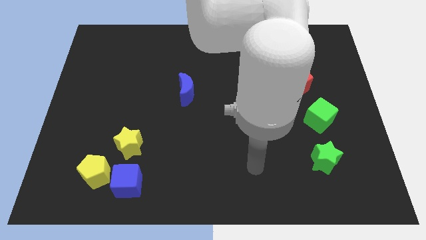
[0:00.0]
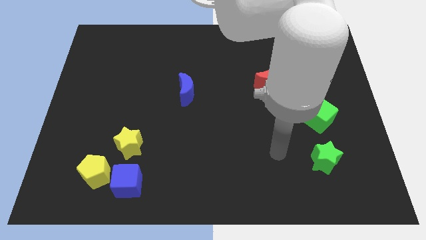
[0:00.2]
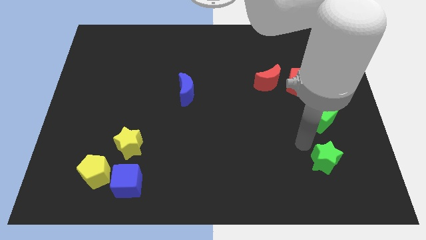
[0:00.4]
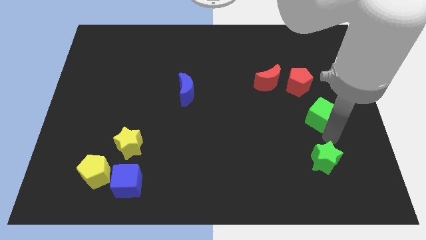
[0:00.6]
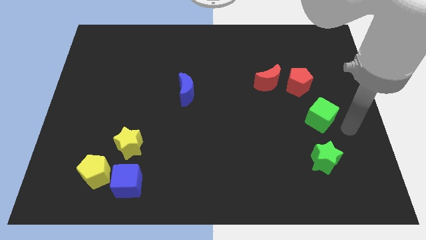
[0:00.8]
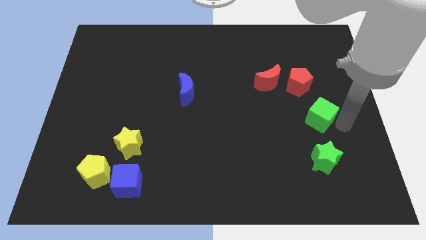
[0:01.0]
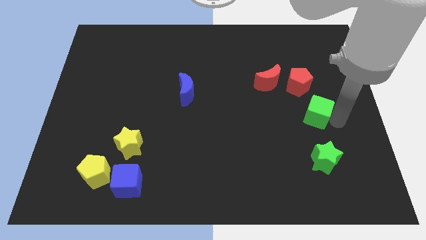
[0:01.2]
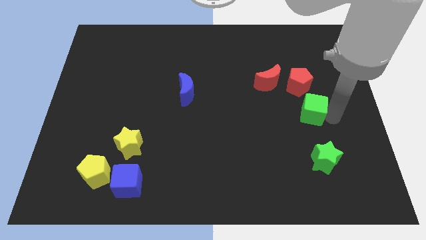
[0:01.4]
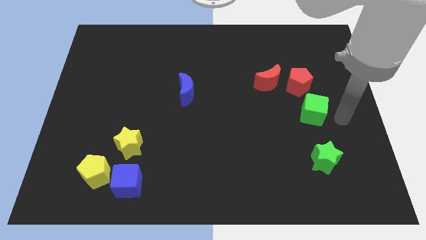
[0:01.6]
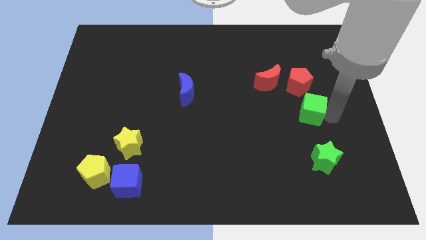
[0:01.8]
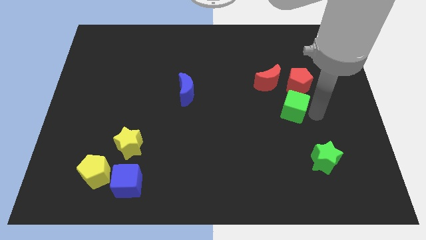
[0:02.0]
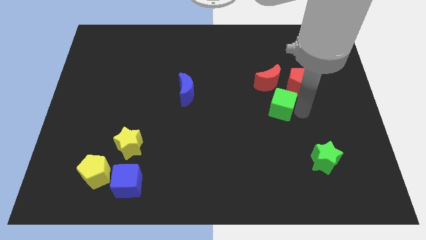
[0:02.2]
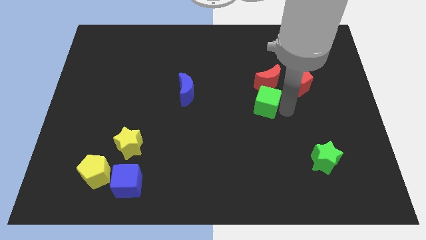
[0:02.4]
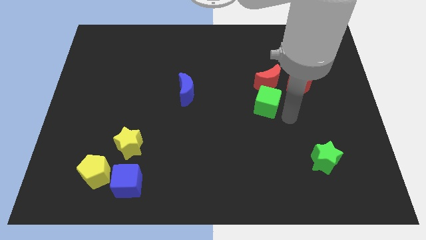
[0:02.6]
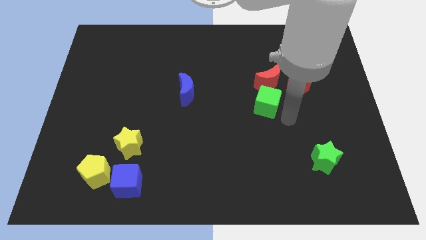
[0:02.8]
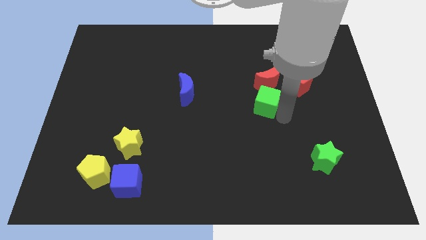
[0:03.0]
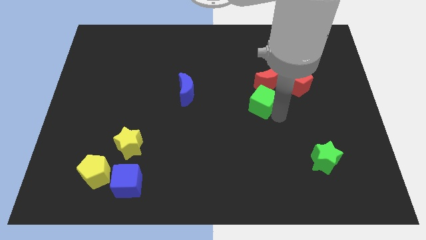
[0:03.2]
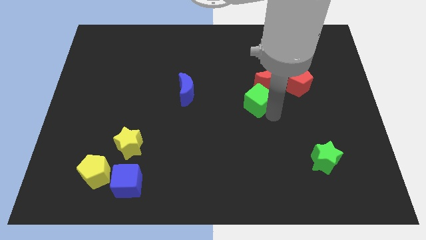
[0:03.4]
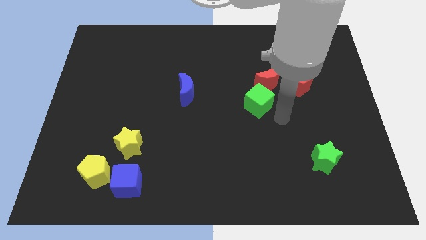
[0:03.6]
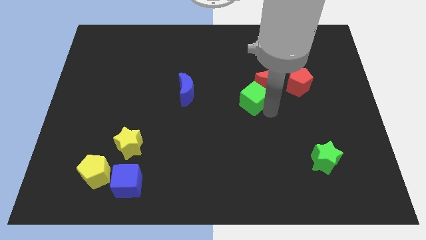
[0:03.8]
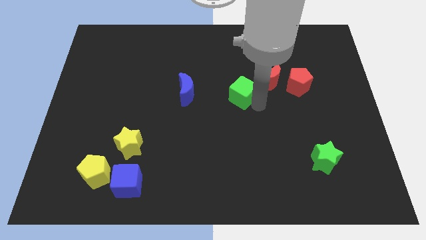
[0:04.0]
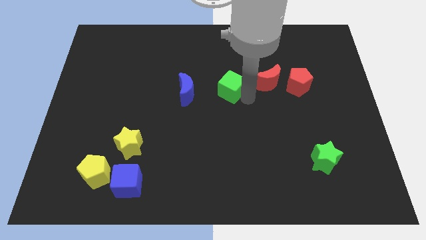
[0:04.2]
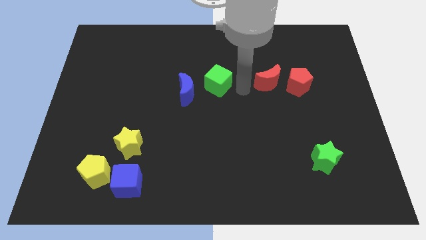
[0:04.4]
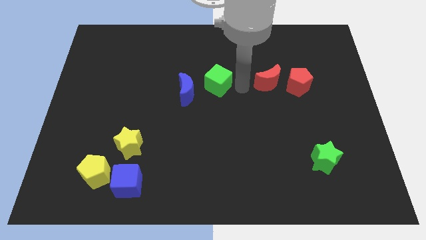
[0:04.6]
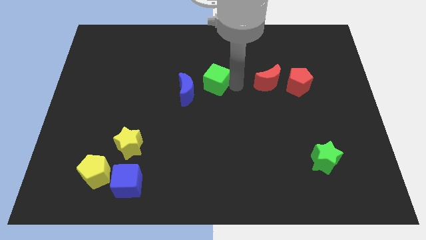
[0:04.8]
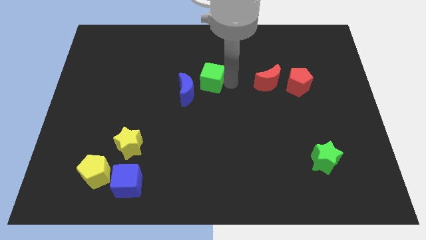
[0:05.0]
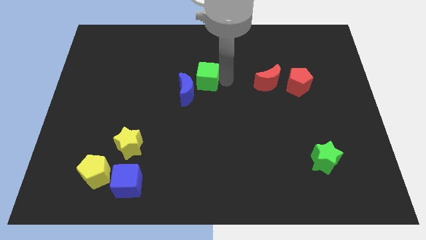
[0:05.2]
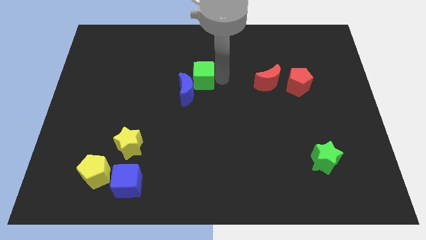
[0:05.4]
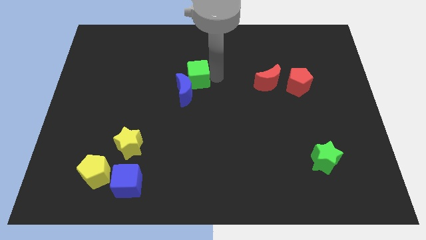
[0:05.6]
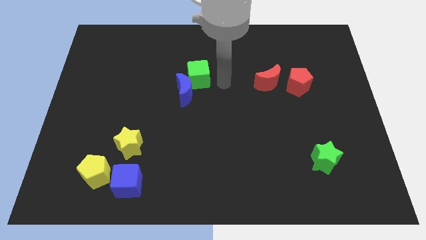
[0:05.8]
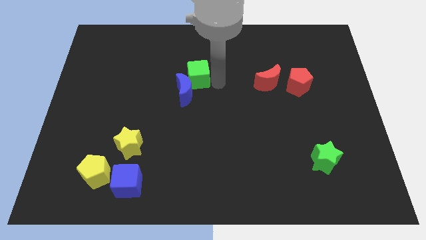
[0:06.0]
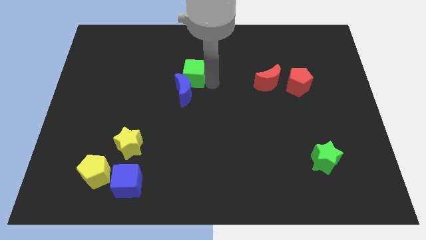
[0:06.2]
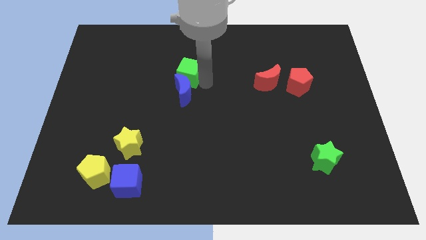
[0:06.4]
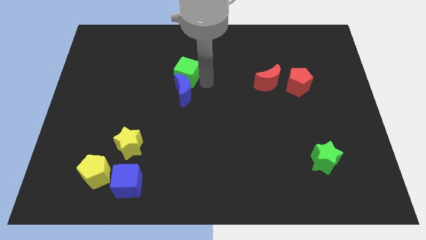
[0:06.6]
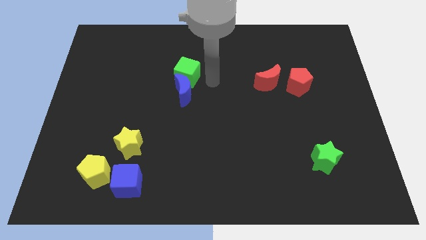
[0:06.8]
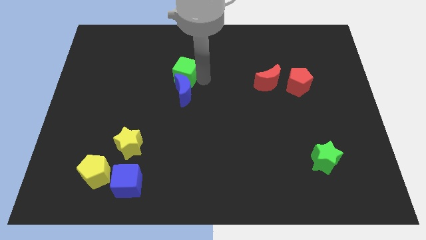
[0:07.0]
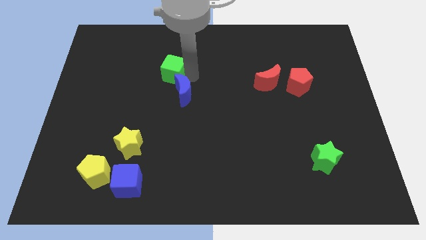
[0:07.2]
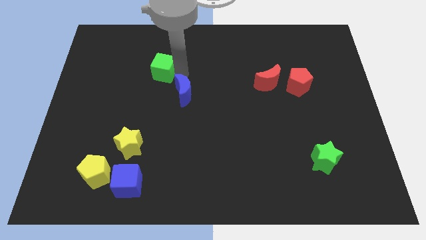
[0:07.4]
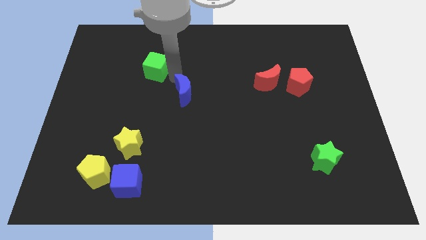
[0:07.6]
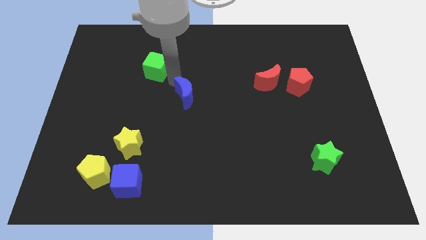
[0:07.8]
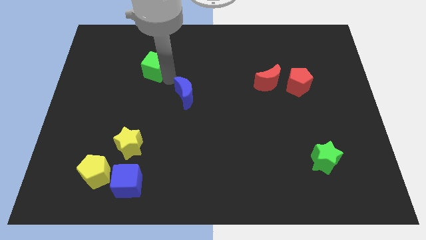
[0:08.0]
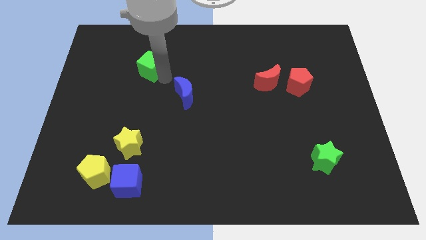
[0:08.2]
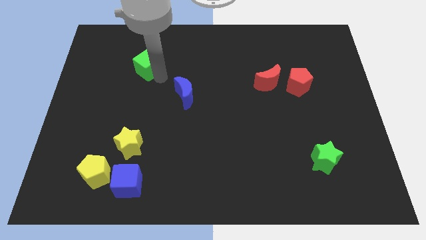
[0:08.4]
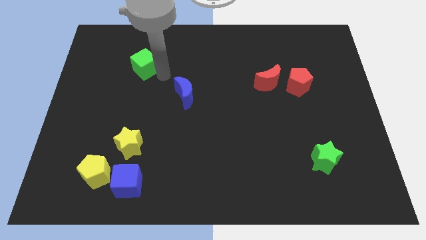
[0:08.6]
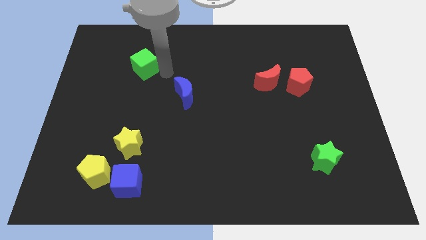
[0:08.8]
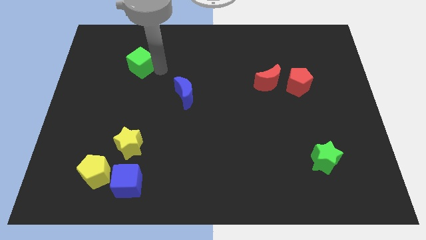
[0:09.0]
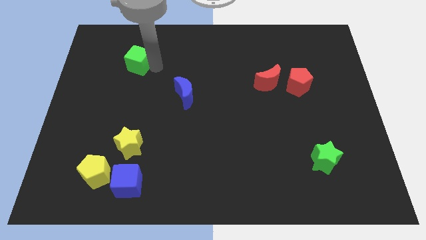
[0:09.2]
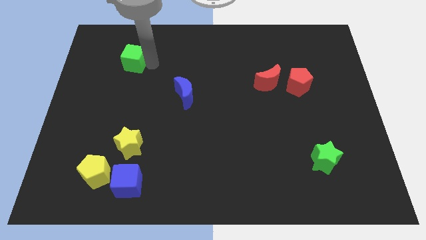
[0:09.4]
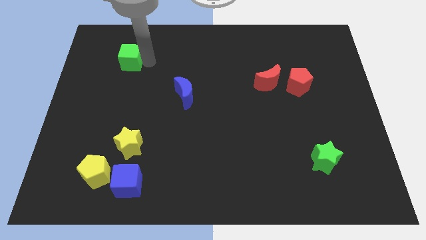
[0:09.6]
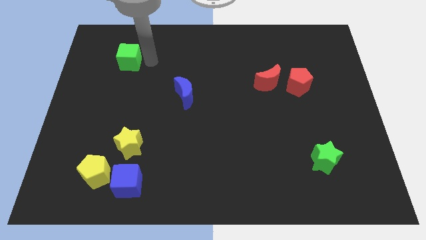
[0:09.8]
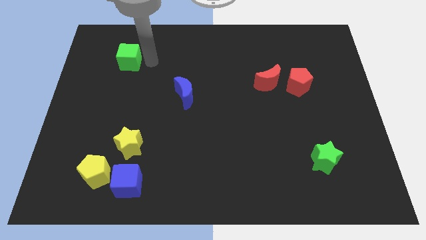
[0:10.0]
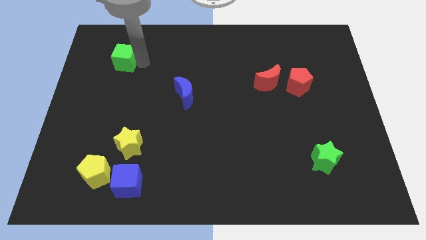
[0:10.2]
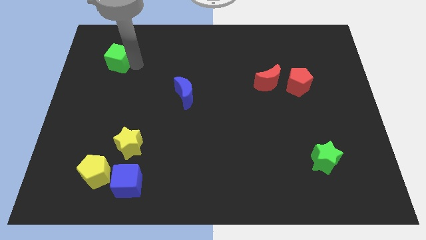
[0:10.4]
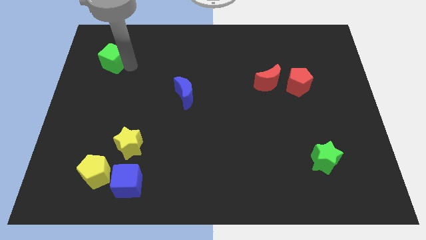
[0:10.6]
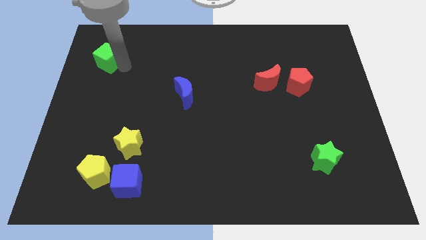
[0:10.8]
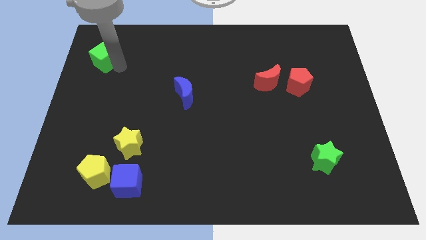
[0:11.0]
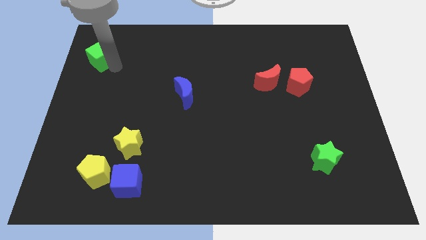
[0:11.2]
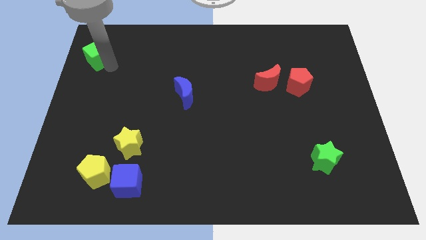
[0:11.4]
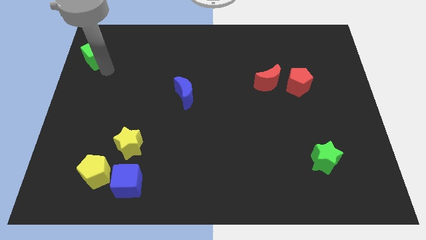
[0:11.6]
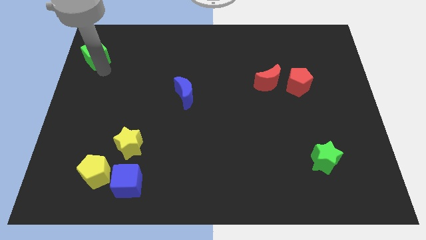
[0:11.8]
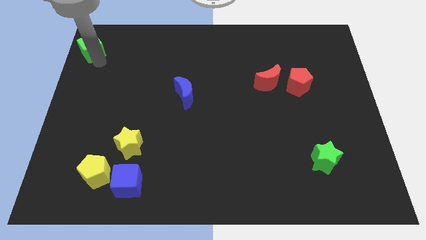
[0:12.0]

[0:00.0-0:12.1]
move the green cube to the top left of the board
